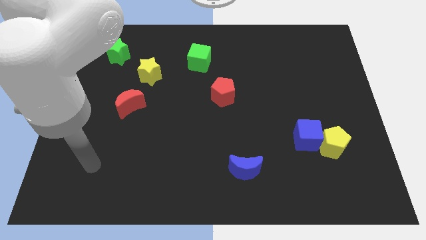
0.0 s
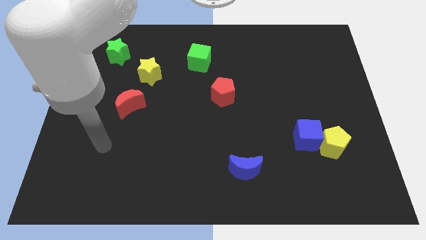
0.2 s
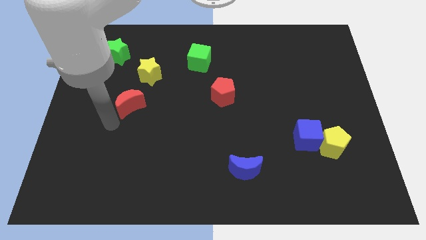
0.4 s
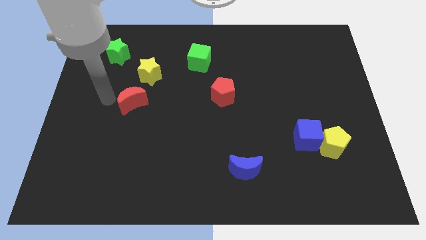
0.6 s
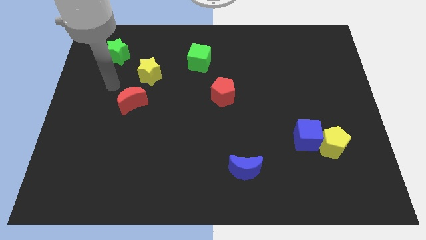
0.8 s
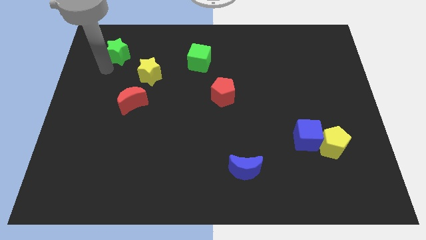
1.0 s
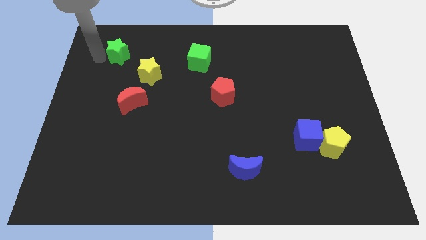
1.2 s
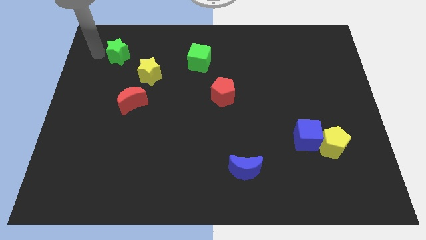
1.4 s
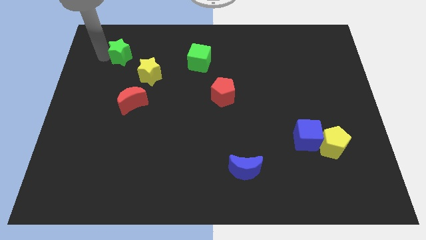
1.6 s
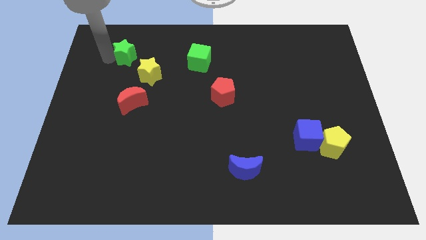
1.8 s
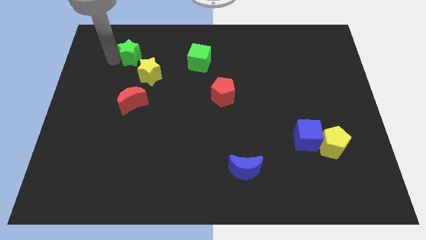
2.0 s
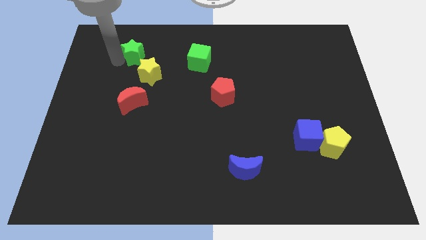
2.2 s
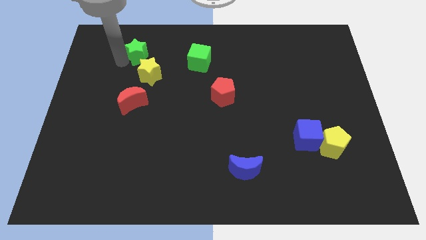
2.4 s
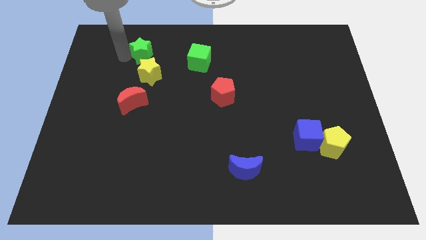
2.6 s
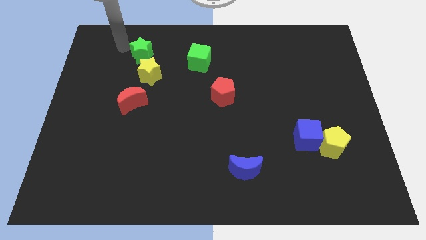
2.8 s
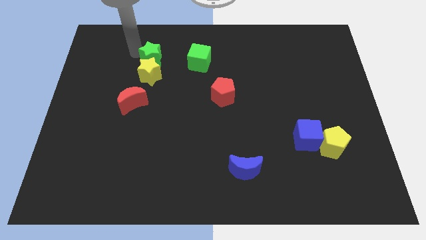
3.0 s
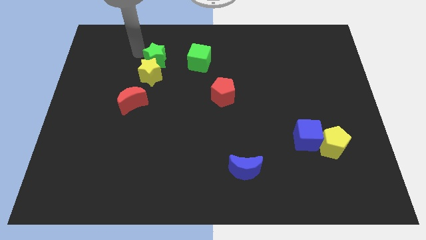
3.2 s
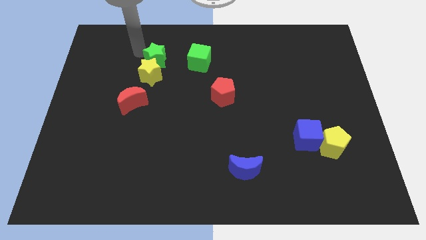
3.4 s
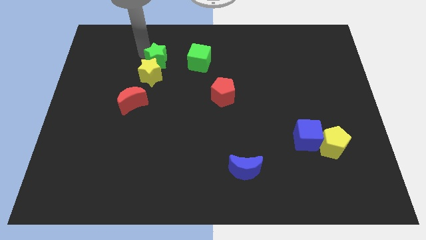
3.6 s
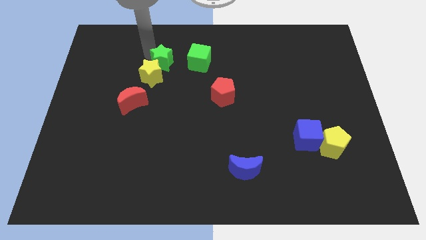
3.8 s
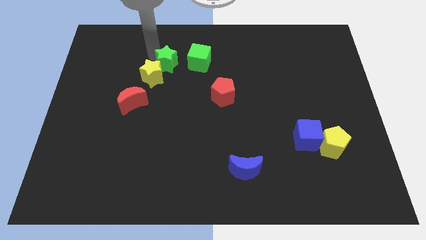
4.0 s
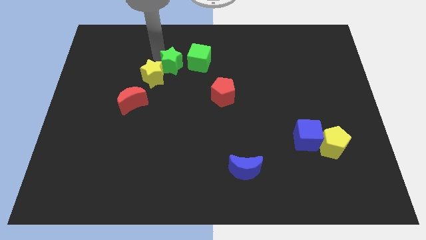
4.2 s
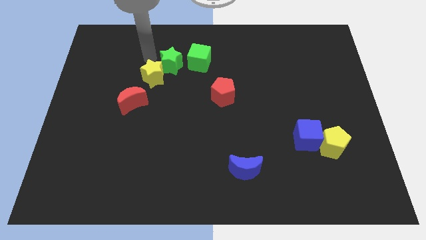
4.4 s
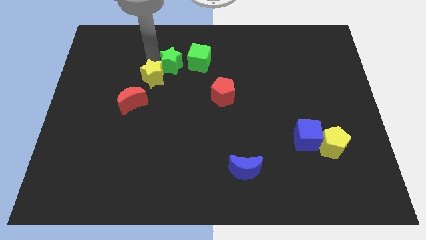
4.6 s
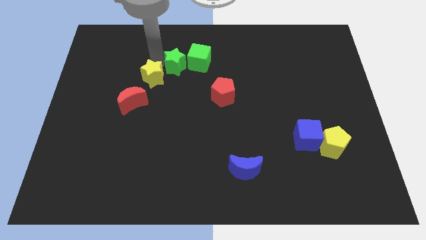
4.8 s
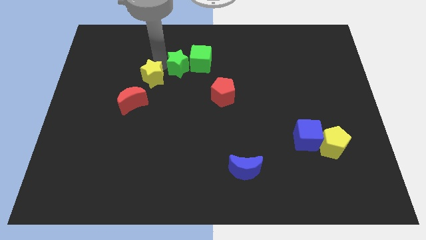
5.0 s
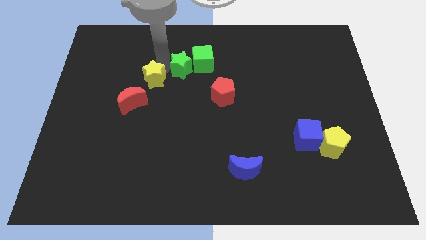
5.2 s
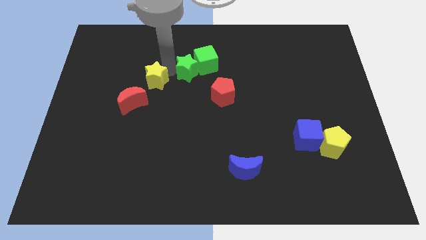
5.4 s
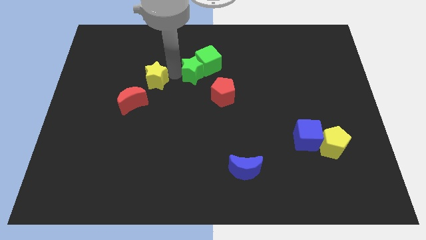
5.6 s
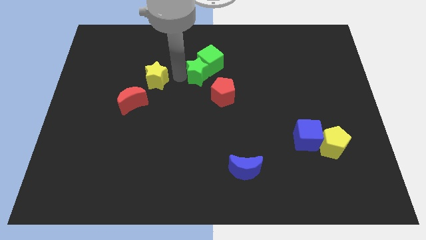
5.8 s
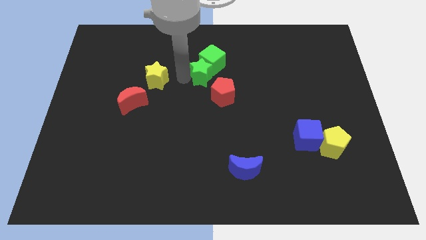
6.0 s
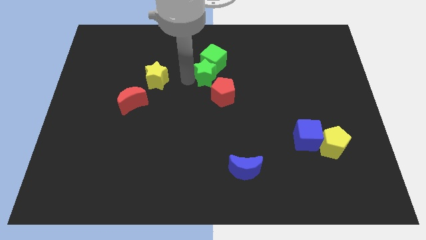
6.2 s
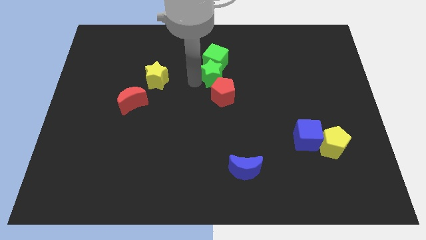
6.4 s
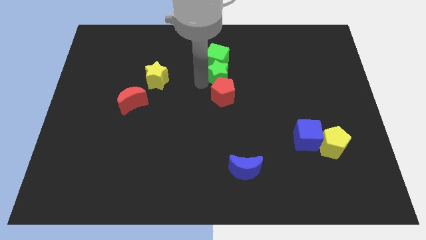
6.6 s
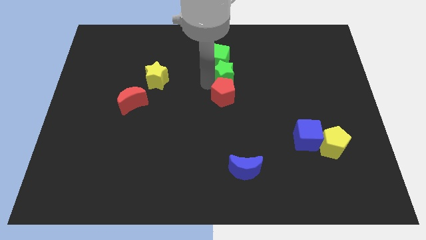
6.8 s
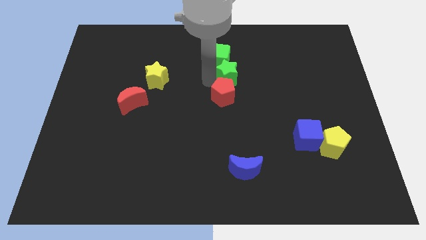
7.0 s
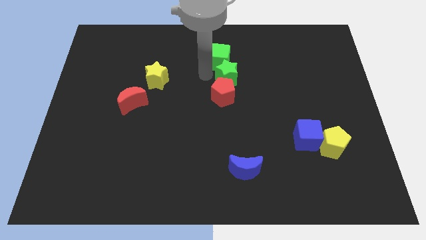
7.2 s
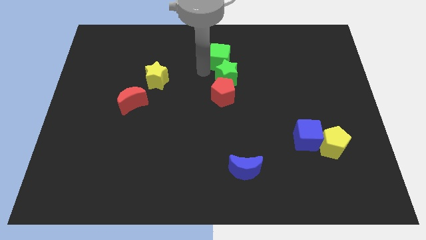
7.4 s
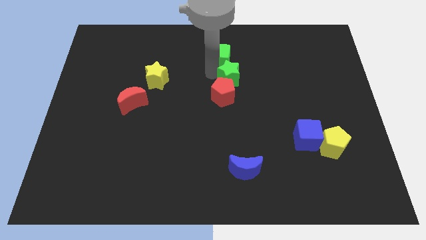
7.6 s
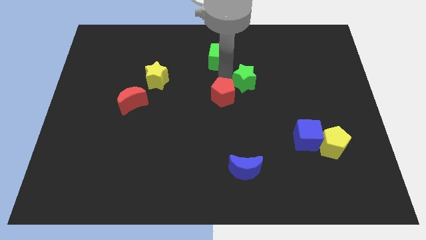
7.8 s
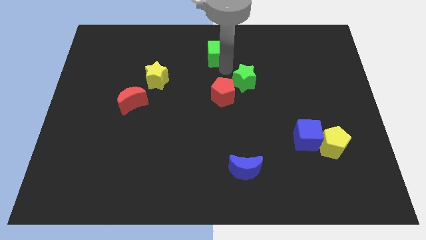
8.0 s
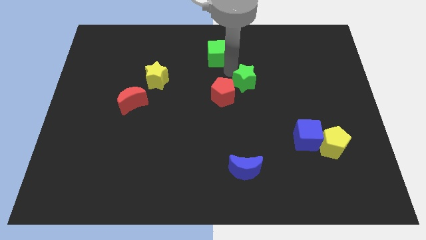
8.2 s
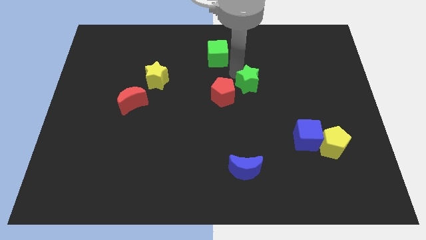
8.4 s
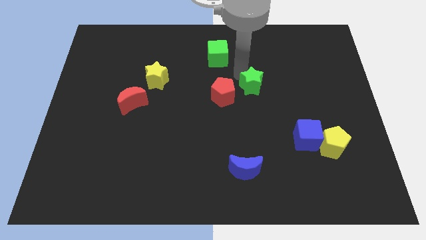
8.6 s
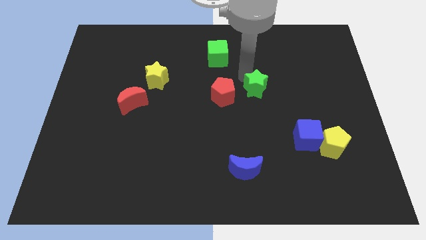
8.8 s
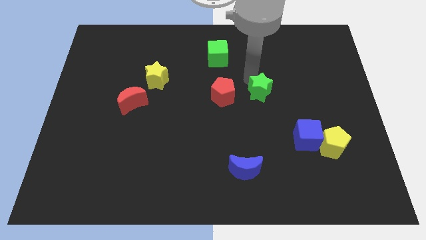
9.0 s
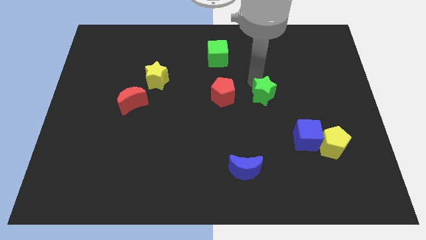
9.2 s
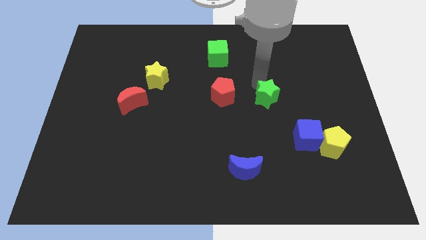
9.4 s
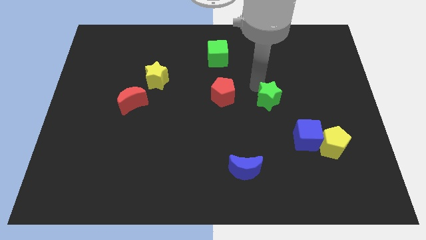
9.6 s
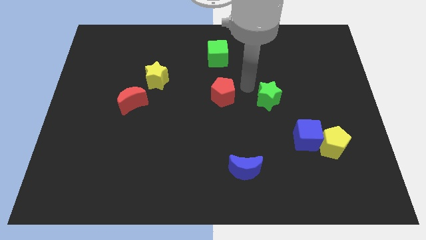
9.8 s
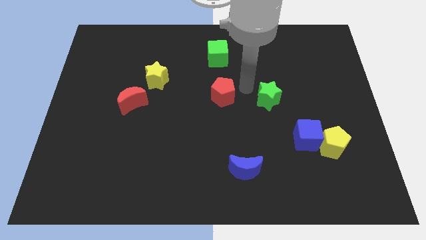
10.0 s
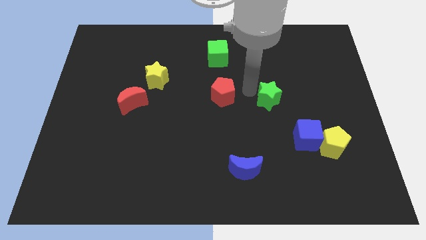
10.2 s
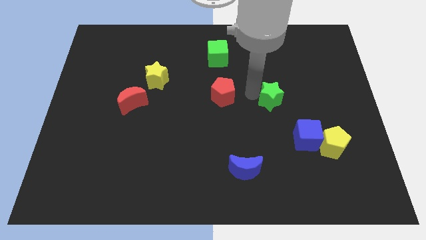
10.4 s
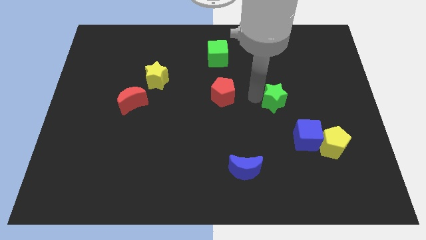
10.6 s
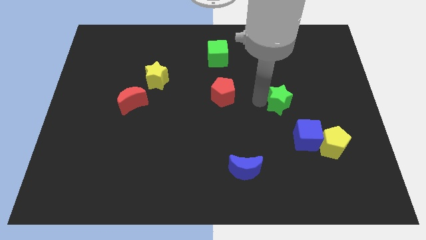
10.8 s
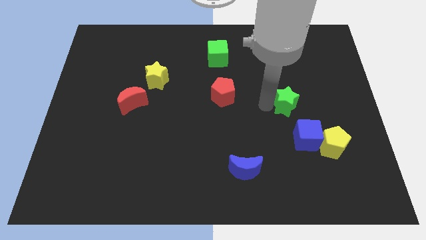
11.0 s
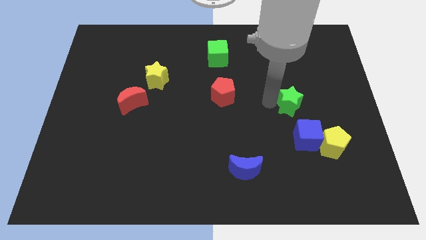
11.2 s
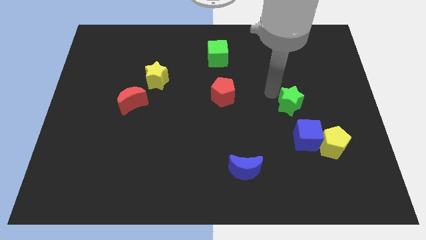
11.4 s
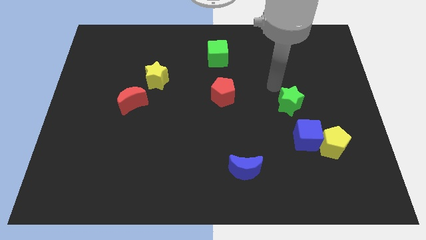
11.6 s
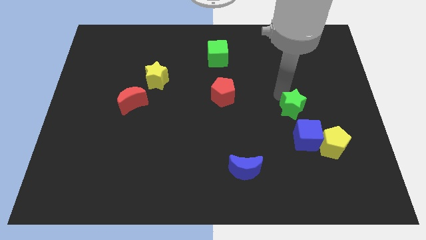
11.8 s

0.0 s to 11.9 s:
push the green star to the top left of the yellow pentagon
